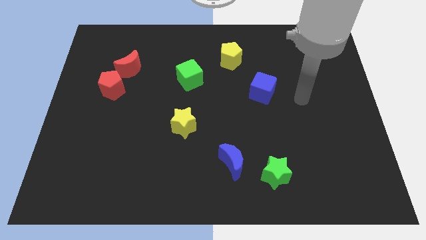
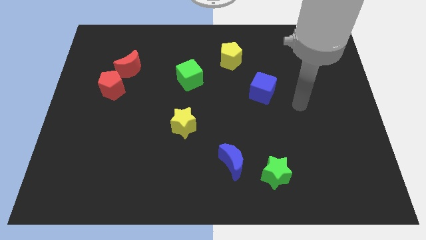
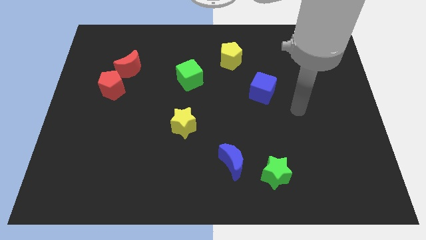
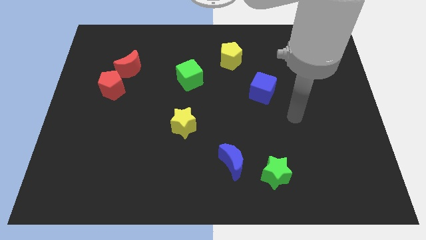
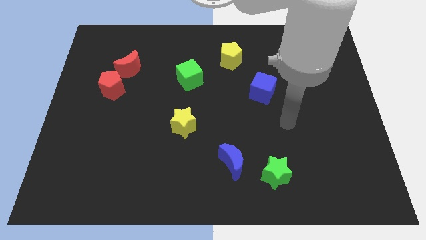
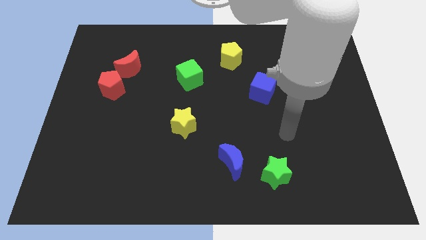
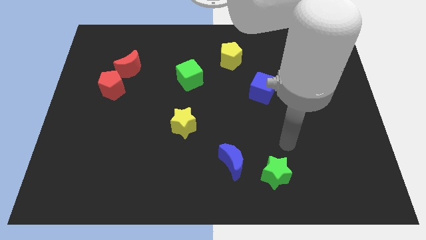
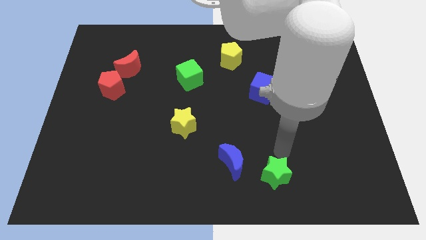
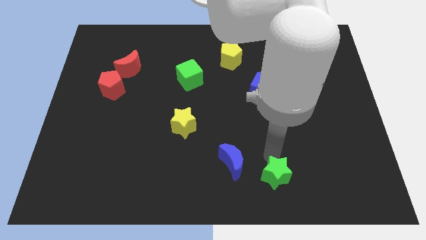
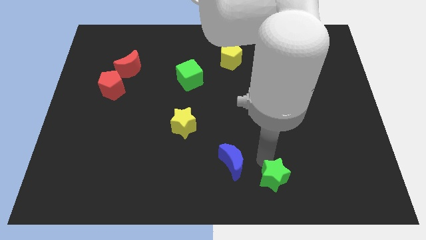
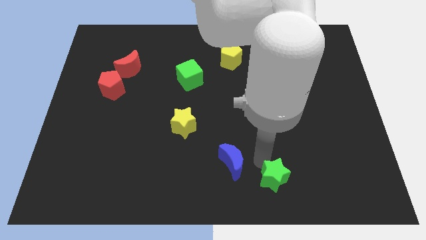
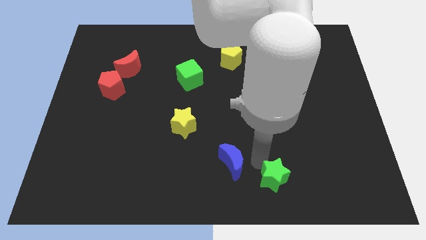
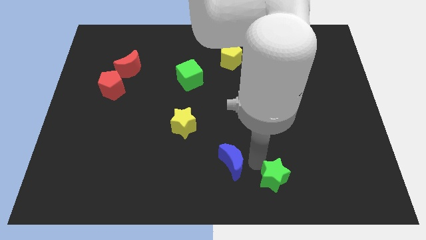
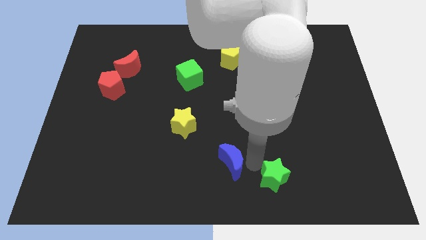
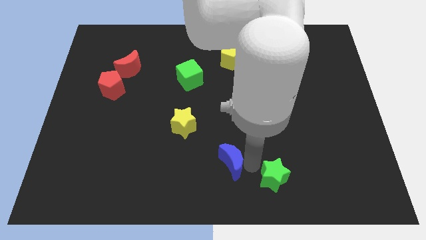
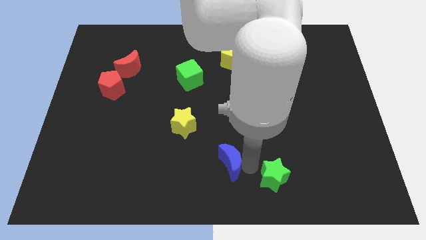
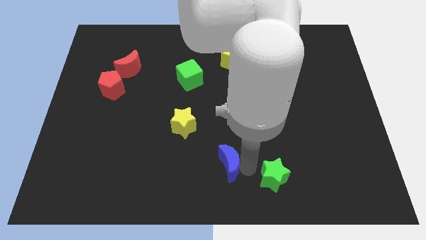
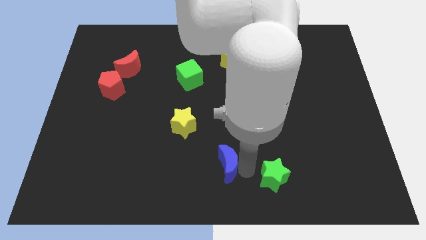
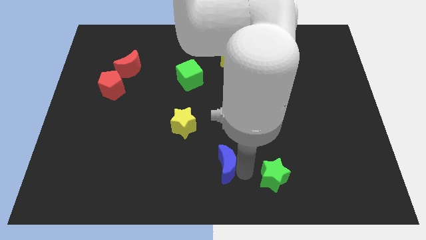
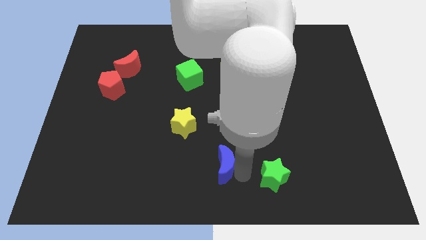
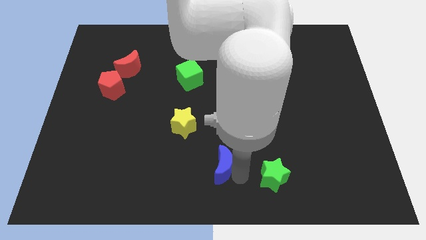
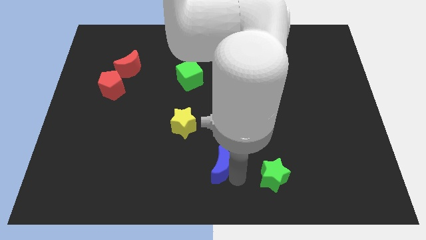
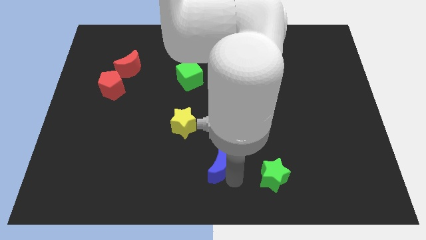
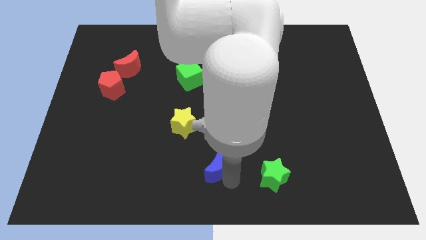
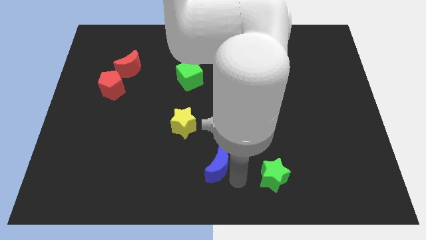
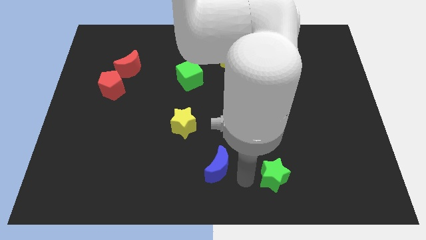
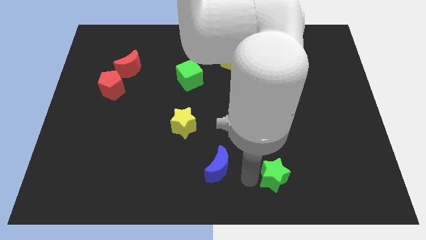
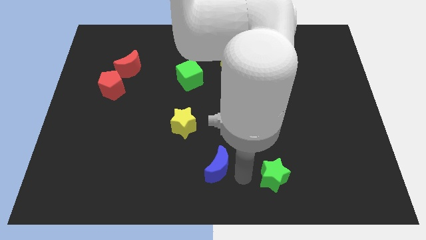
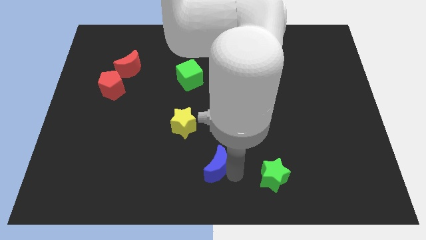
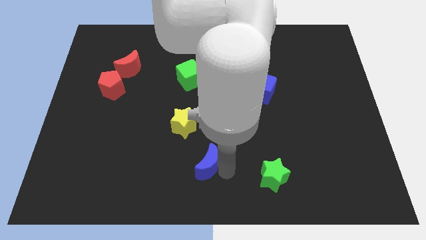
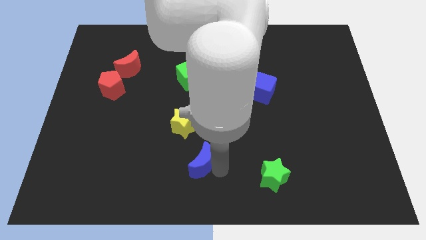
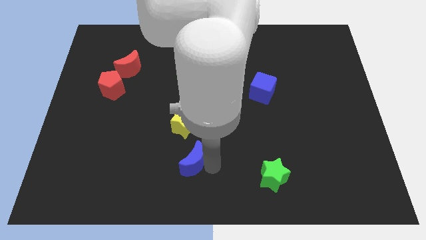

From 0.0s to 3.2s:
slightly push the blue moon to the left

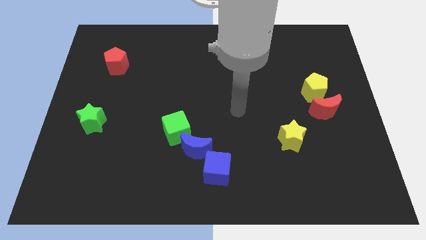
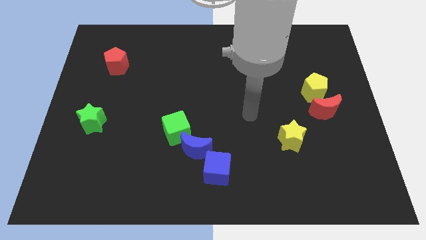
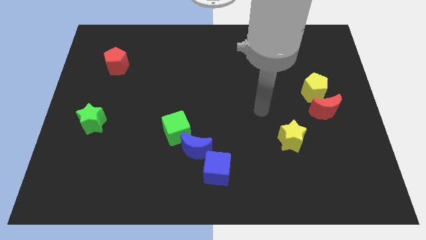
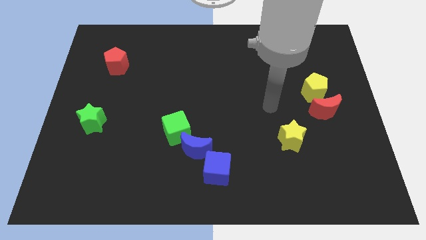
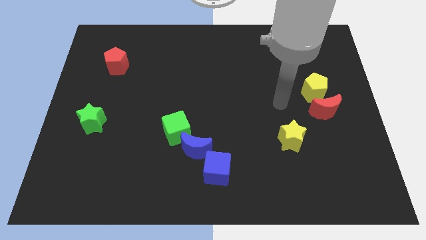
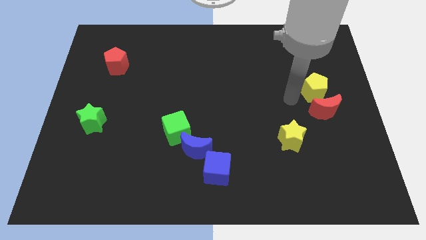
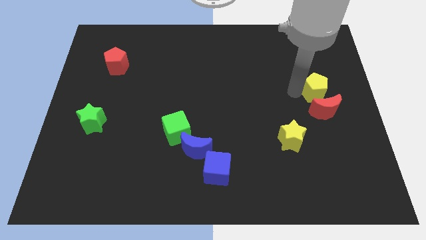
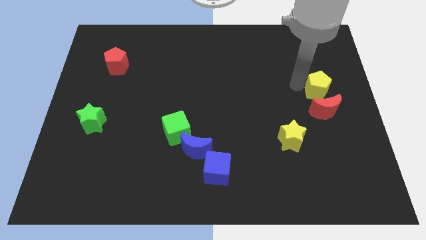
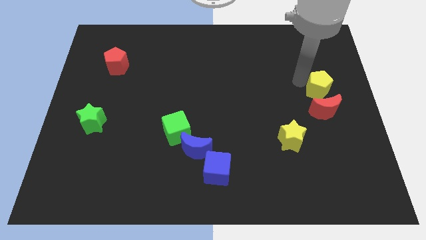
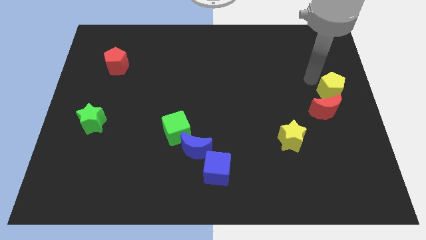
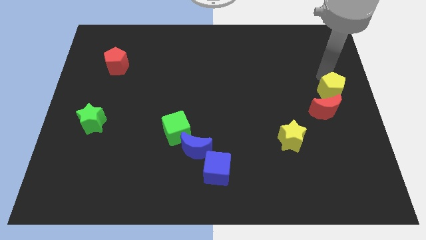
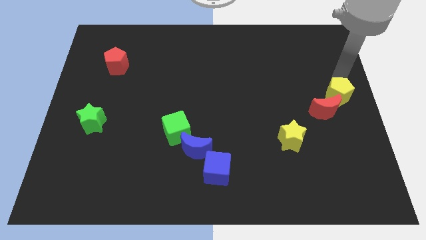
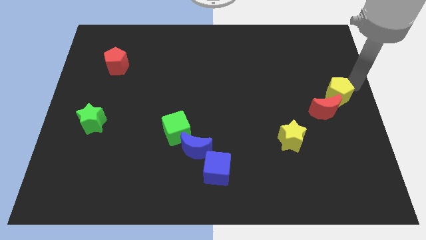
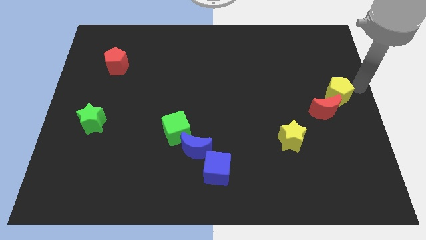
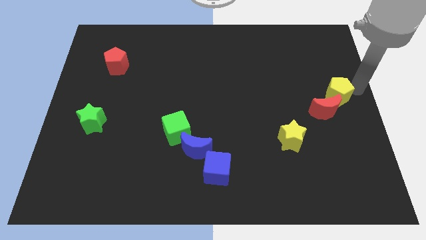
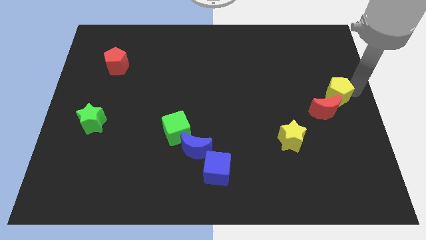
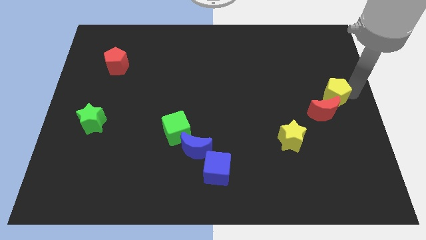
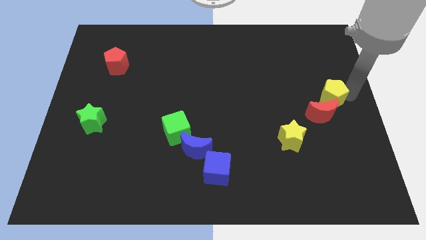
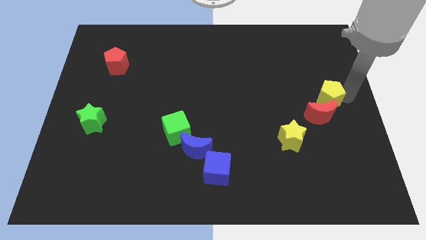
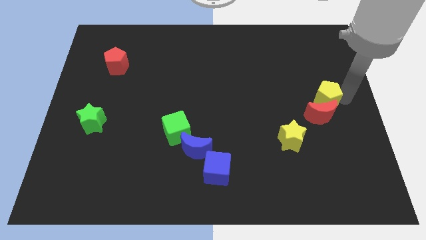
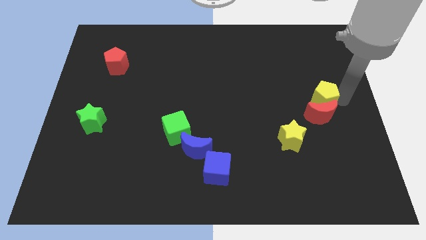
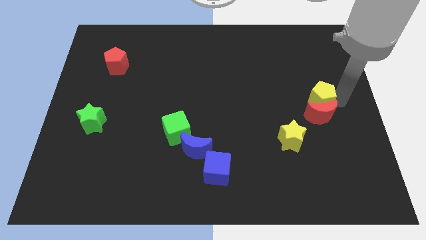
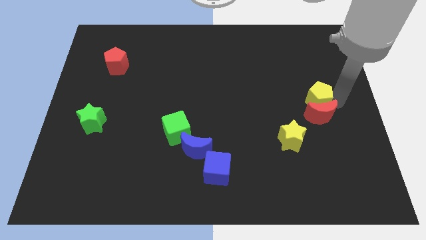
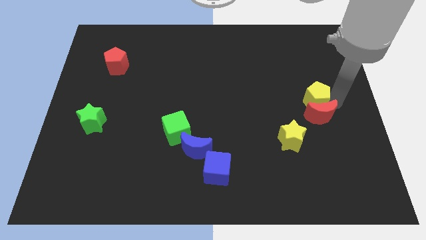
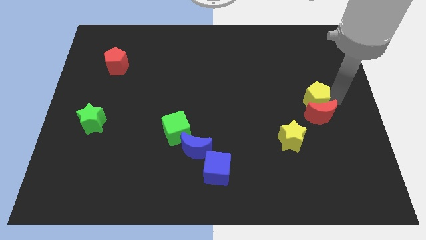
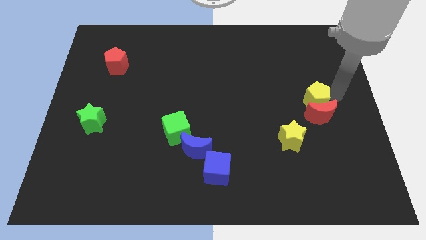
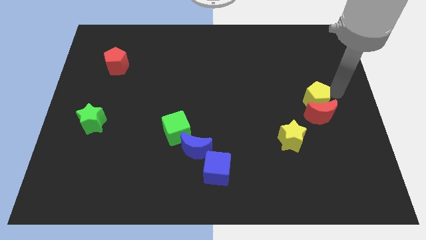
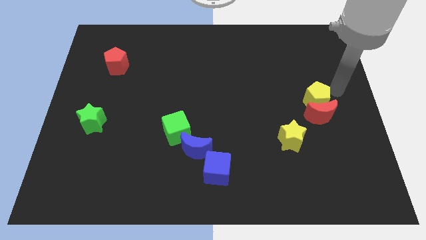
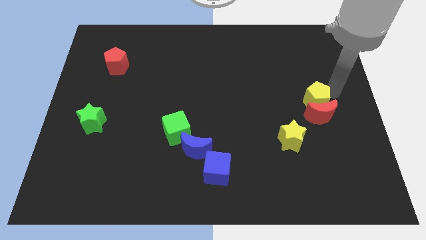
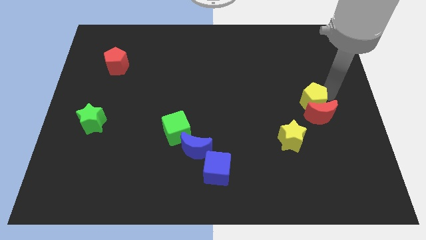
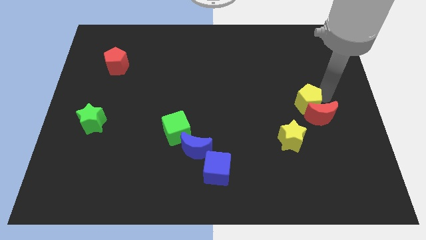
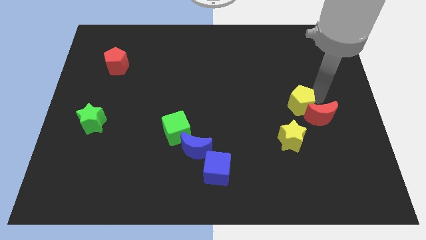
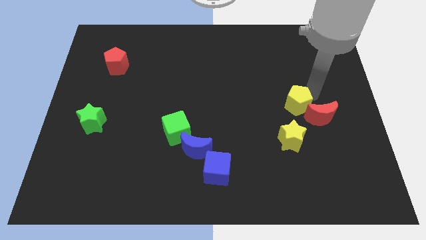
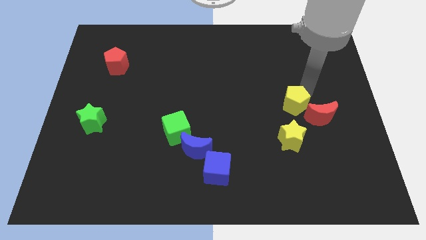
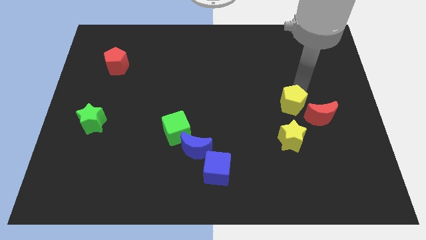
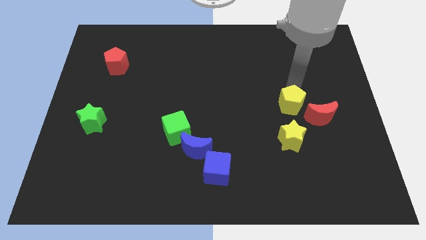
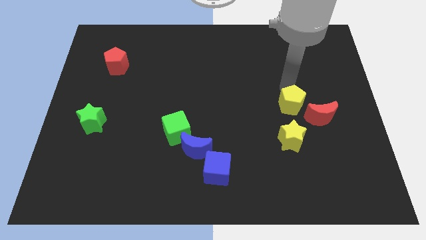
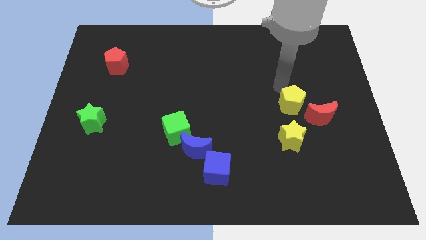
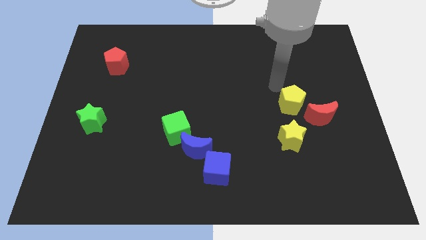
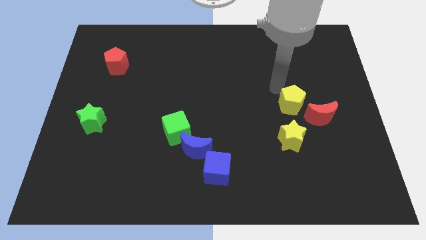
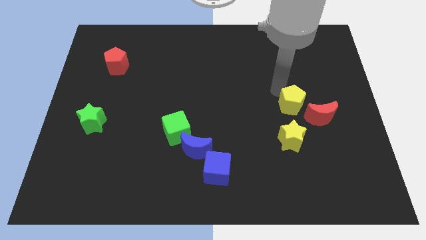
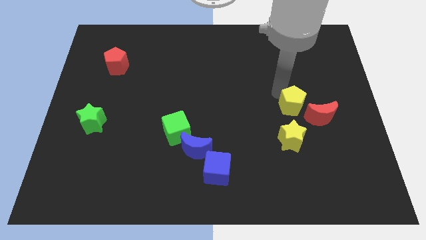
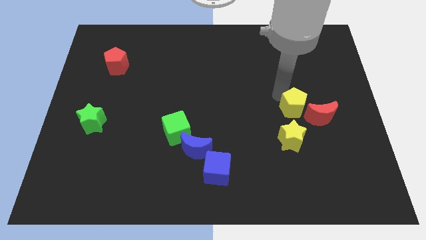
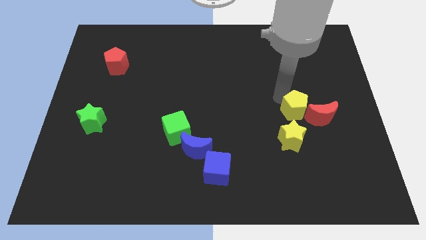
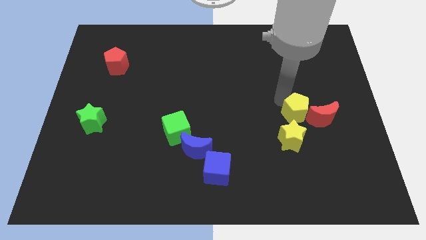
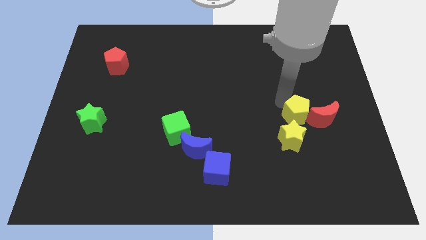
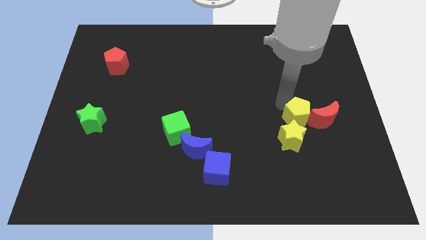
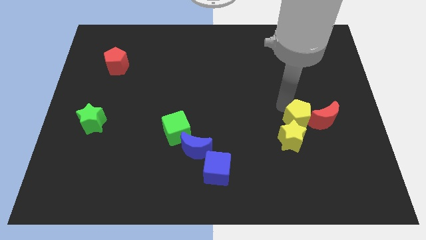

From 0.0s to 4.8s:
push the yellow pentagon a bit down
